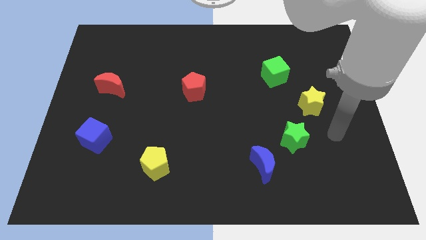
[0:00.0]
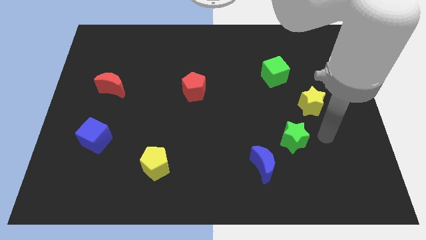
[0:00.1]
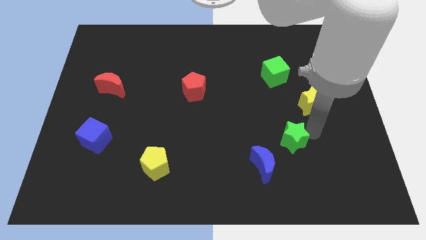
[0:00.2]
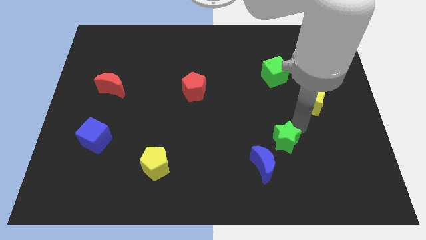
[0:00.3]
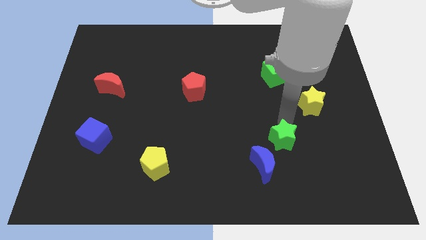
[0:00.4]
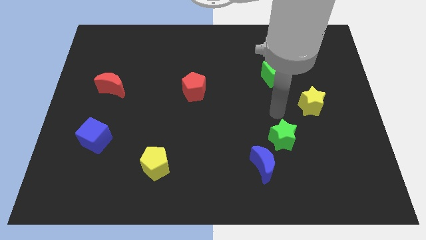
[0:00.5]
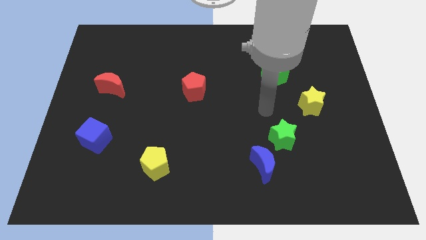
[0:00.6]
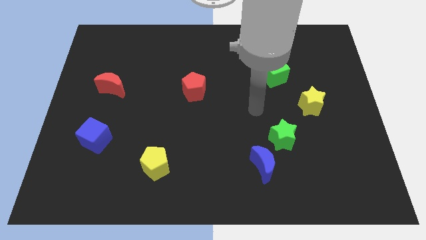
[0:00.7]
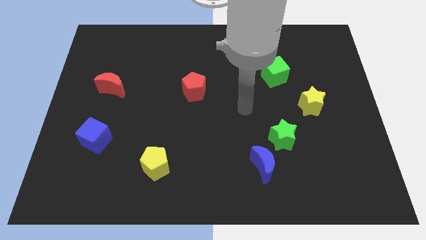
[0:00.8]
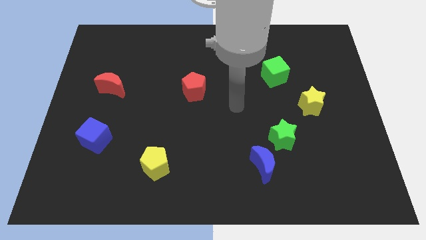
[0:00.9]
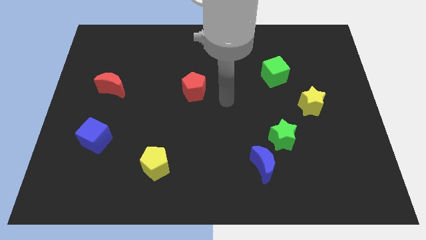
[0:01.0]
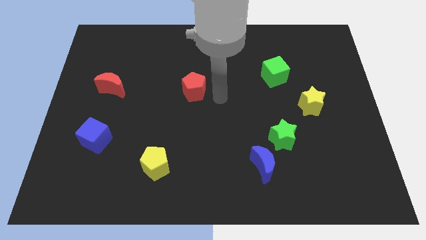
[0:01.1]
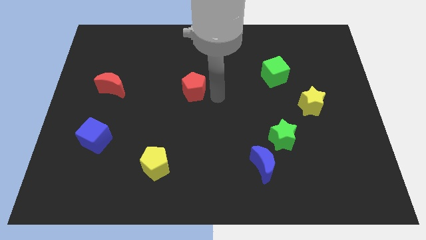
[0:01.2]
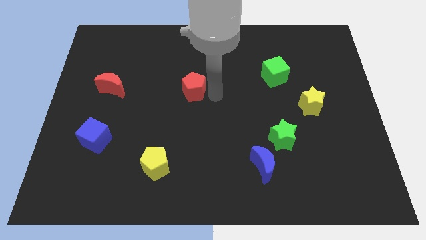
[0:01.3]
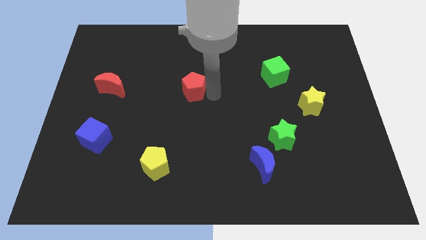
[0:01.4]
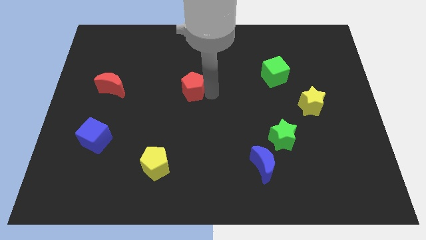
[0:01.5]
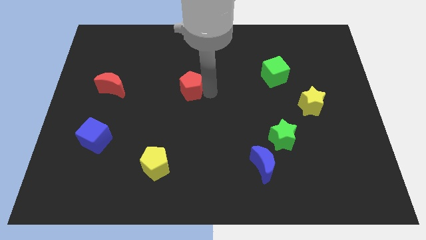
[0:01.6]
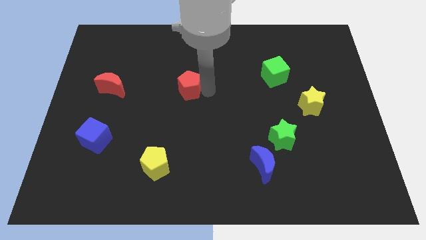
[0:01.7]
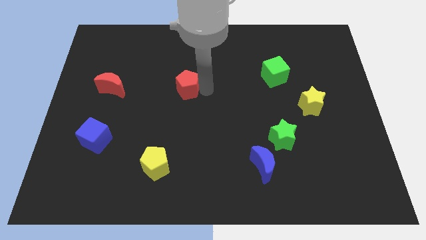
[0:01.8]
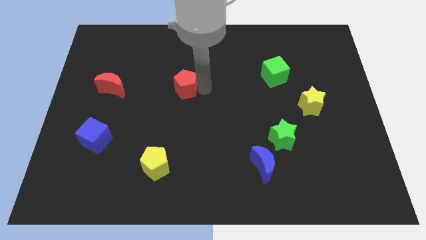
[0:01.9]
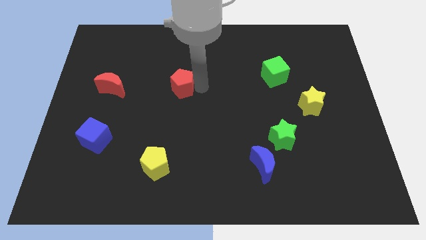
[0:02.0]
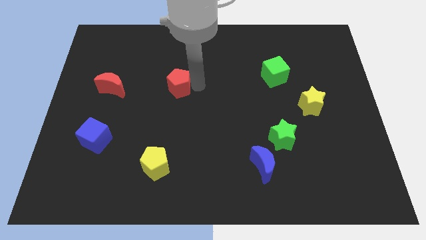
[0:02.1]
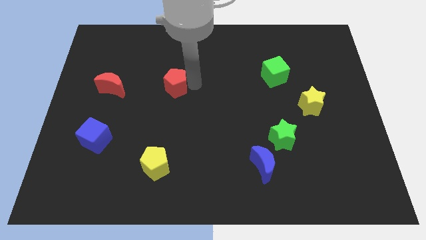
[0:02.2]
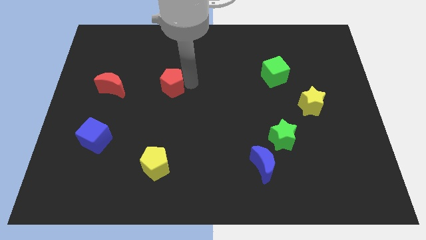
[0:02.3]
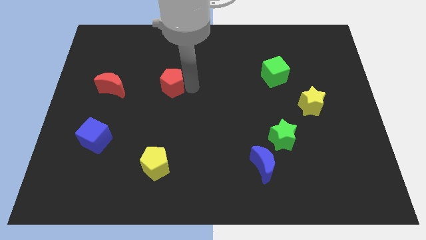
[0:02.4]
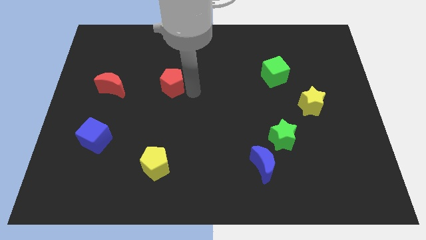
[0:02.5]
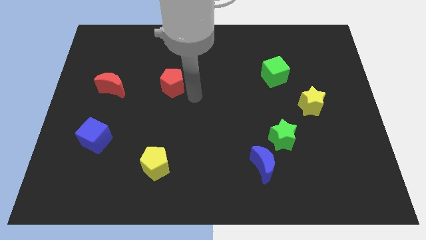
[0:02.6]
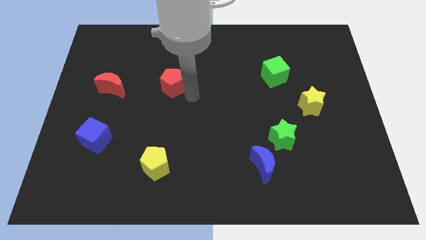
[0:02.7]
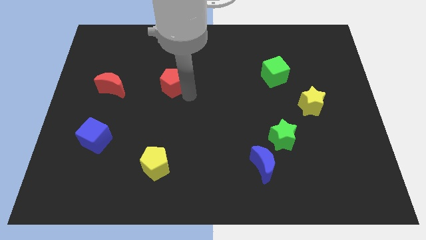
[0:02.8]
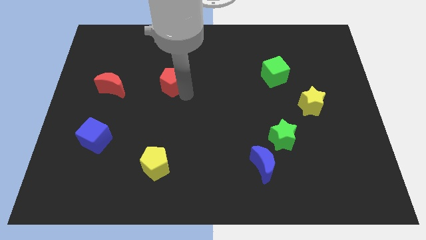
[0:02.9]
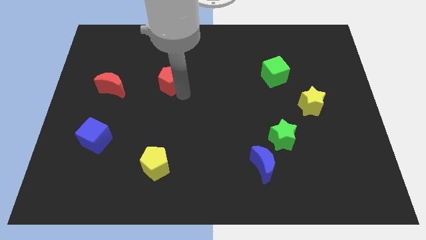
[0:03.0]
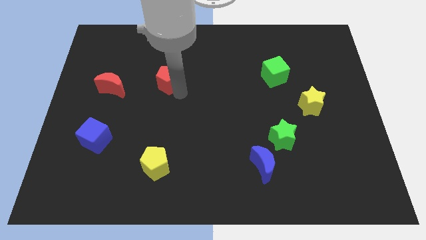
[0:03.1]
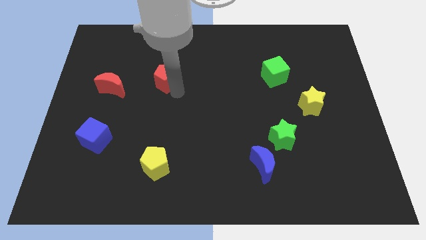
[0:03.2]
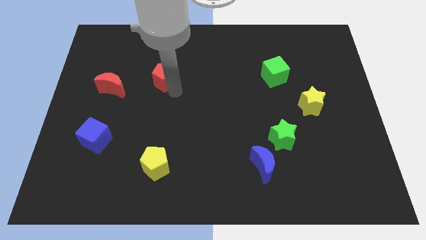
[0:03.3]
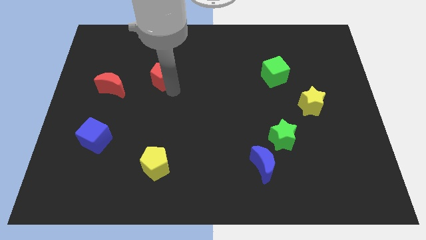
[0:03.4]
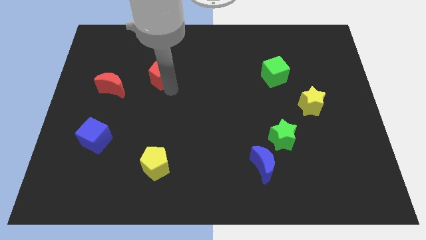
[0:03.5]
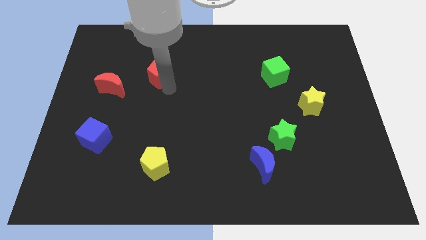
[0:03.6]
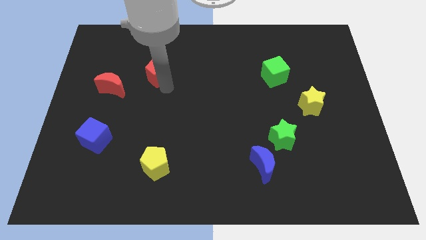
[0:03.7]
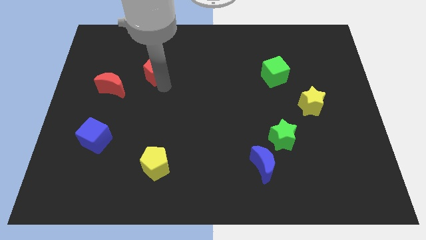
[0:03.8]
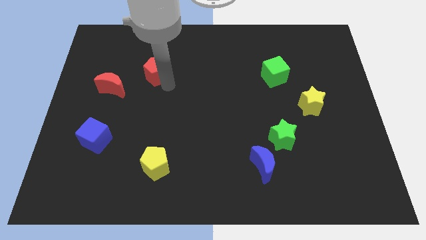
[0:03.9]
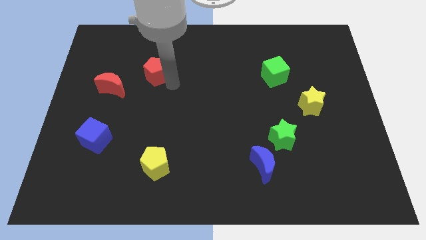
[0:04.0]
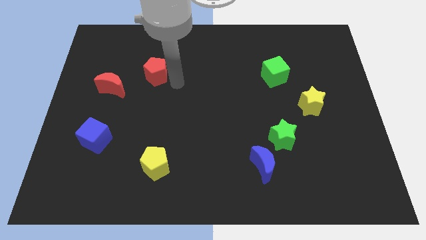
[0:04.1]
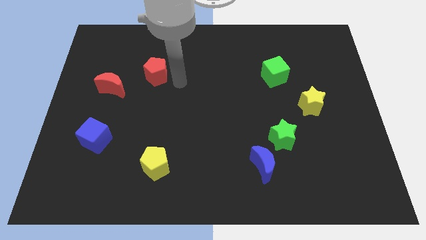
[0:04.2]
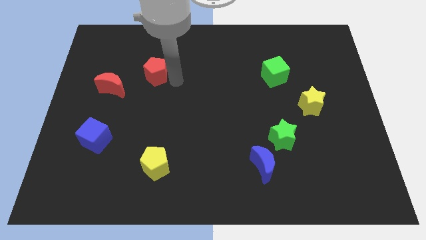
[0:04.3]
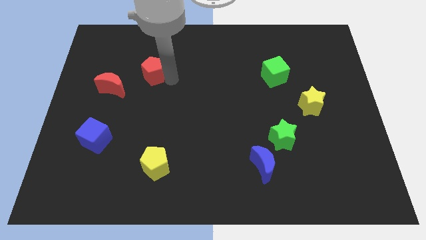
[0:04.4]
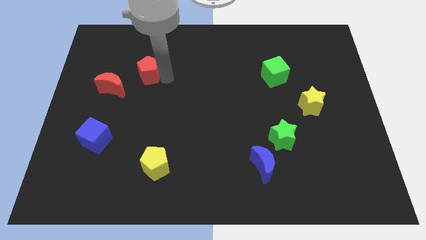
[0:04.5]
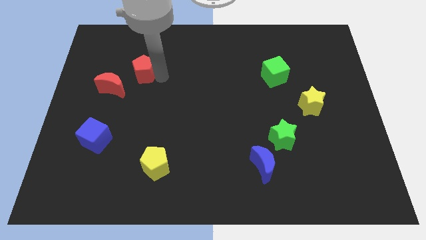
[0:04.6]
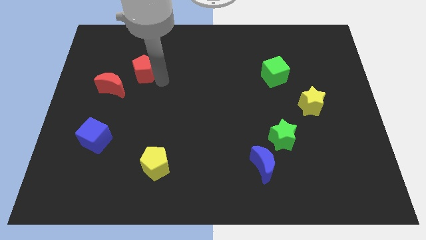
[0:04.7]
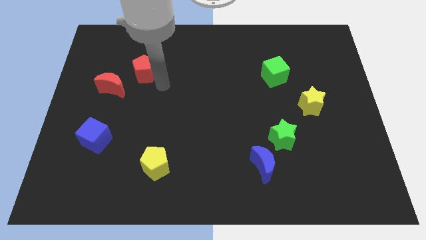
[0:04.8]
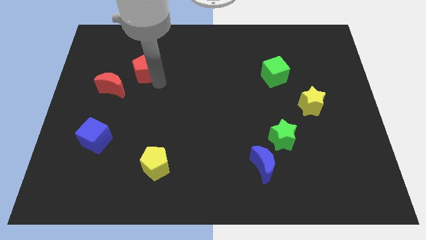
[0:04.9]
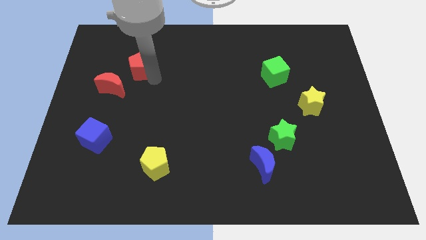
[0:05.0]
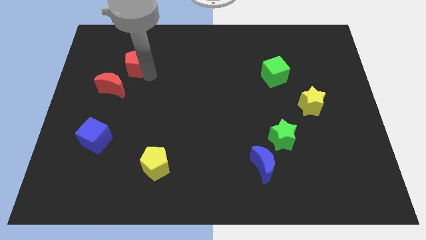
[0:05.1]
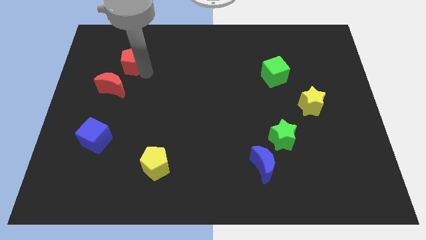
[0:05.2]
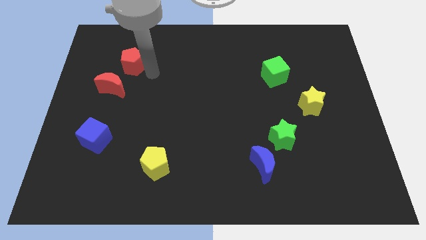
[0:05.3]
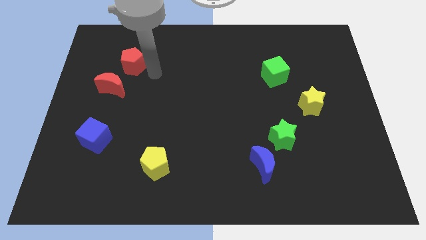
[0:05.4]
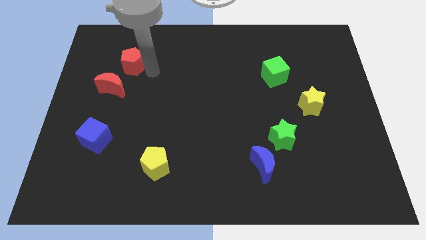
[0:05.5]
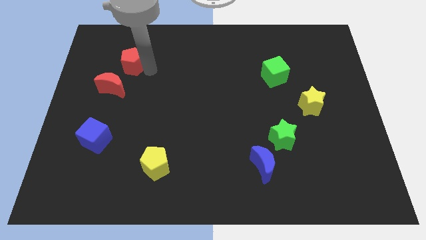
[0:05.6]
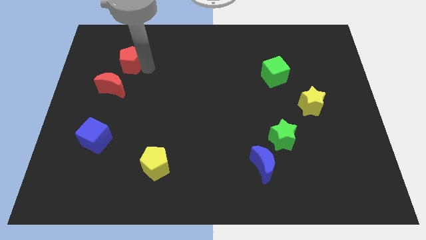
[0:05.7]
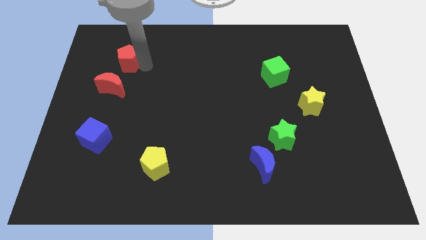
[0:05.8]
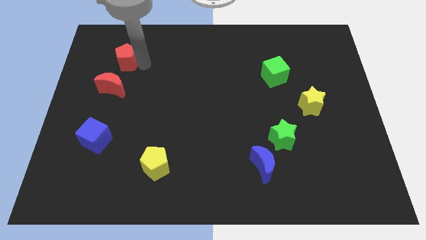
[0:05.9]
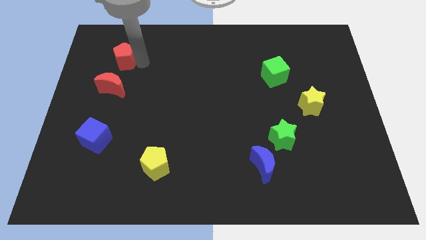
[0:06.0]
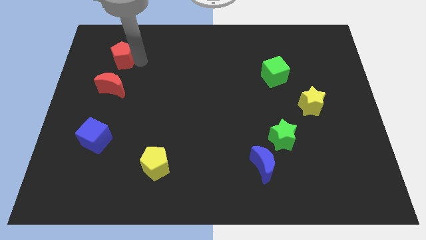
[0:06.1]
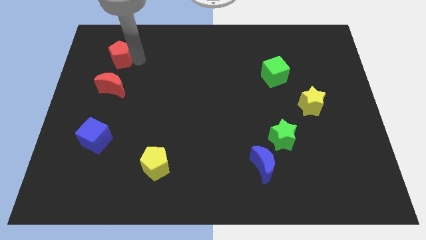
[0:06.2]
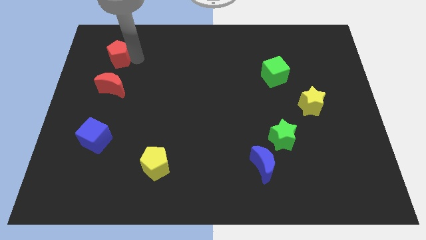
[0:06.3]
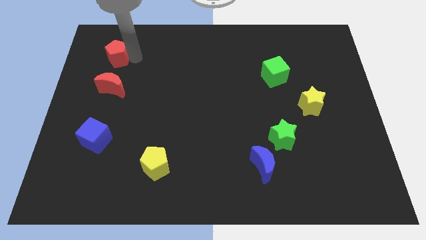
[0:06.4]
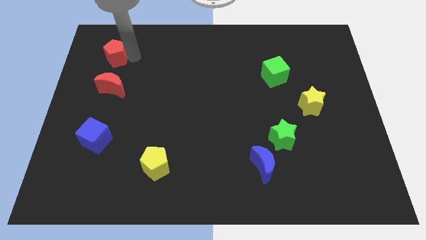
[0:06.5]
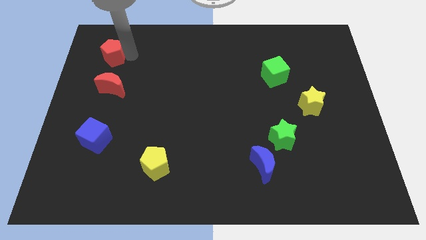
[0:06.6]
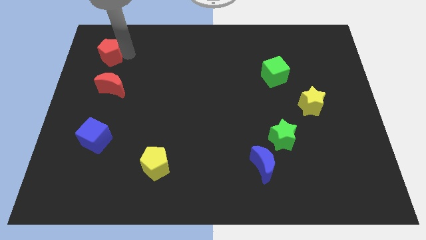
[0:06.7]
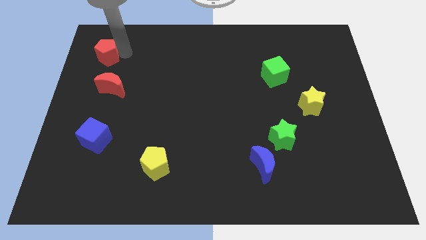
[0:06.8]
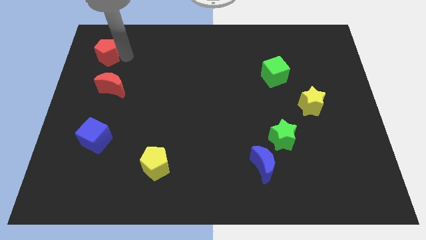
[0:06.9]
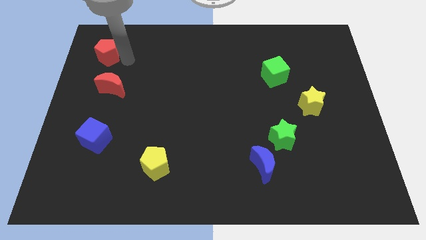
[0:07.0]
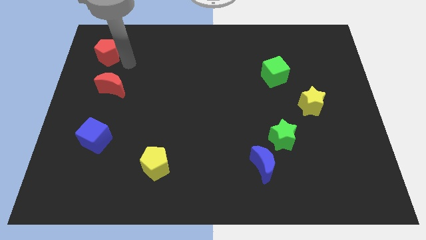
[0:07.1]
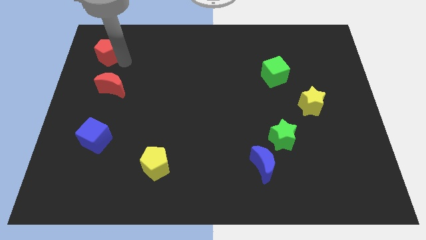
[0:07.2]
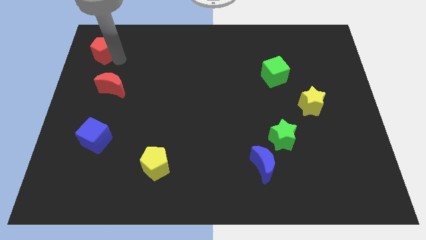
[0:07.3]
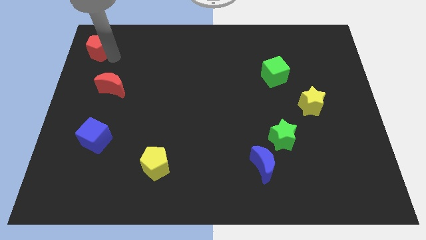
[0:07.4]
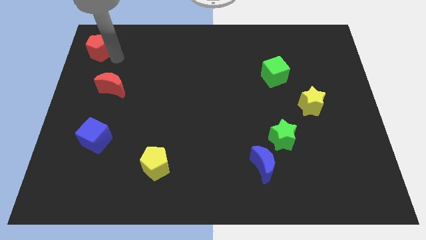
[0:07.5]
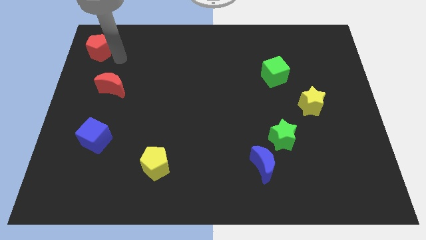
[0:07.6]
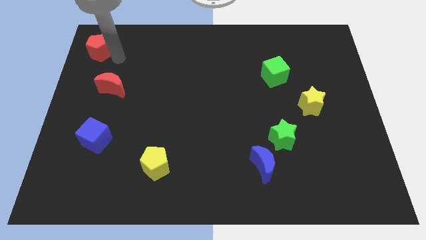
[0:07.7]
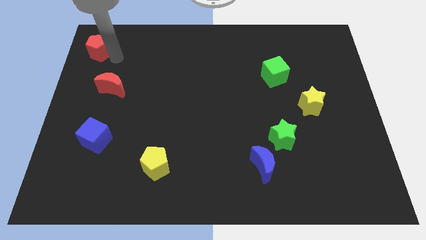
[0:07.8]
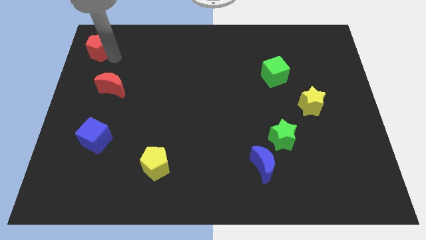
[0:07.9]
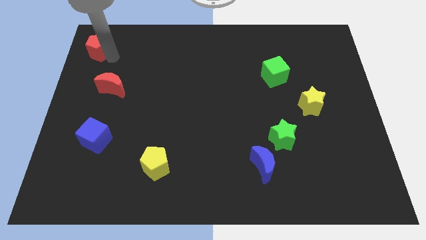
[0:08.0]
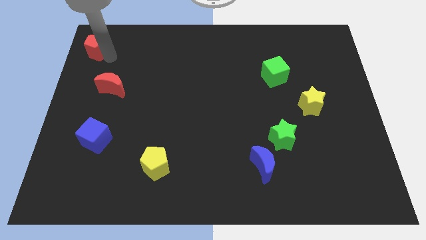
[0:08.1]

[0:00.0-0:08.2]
move the red pentagon to the top left
